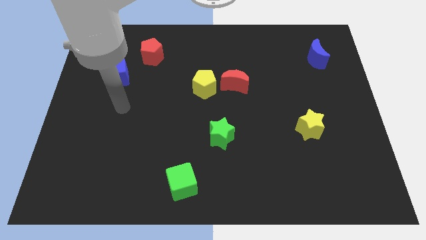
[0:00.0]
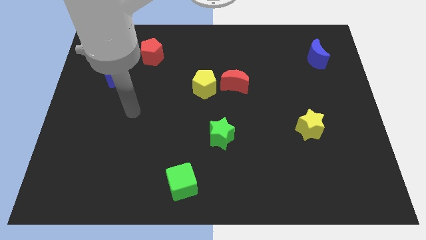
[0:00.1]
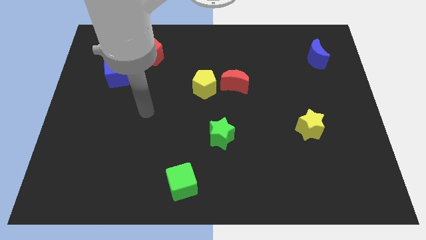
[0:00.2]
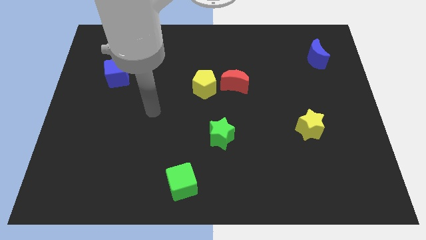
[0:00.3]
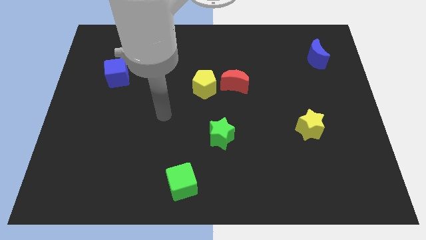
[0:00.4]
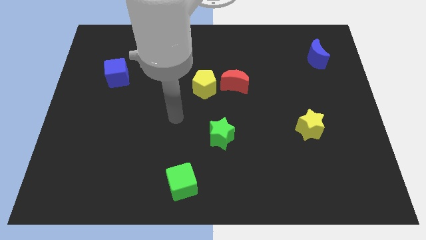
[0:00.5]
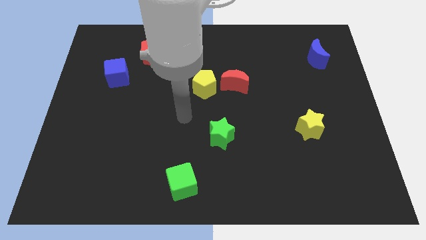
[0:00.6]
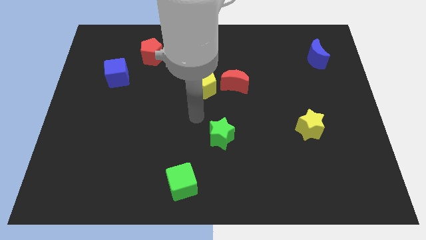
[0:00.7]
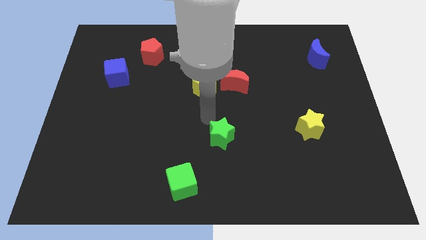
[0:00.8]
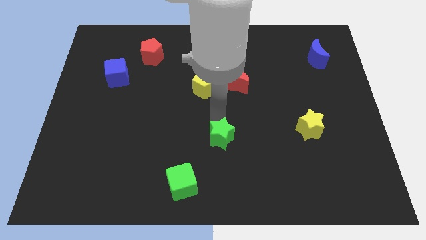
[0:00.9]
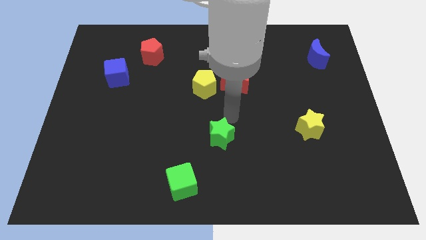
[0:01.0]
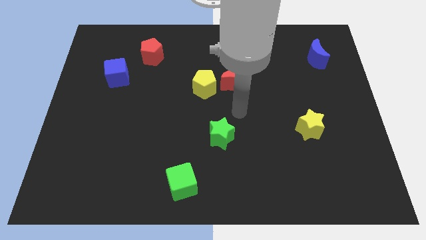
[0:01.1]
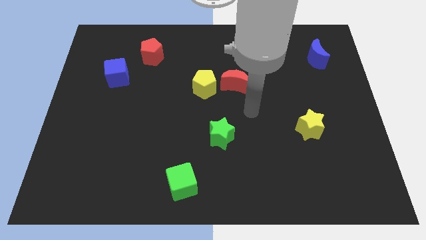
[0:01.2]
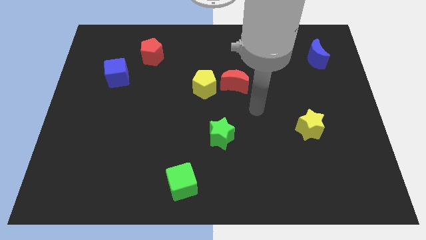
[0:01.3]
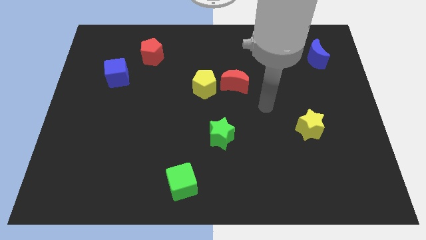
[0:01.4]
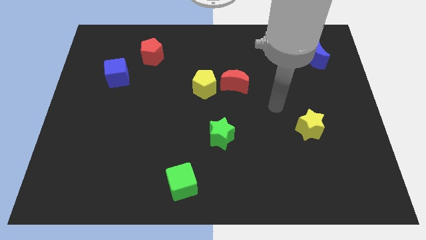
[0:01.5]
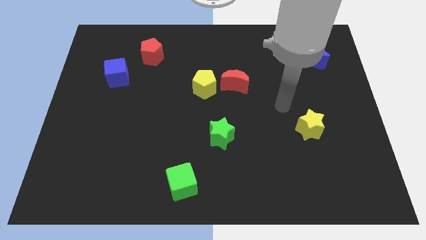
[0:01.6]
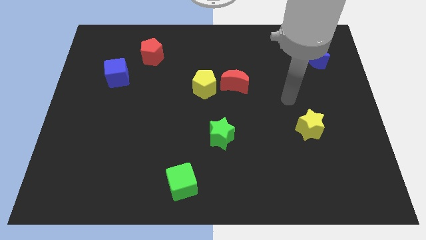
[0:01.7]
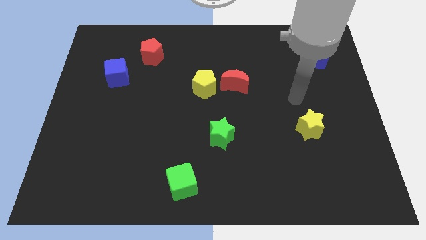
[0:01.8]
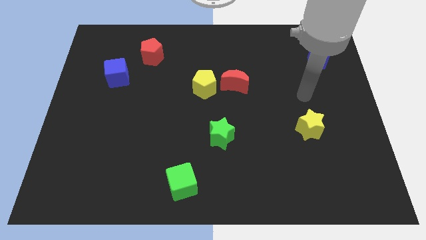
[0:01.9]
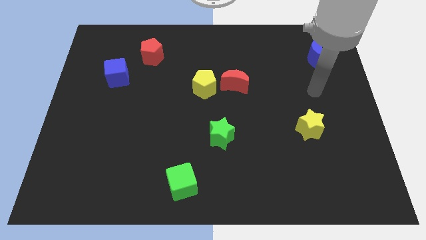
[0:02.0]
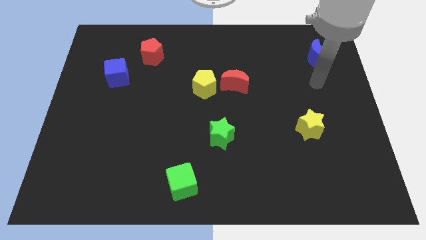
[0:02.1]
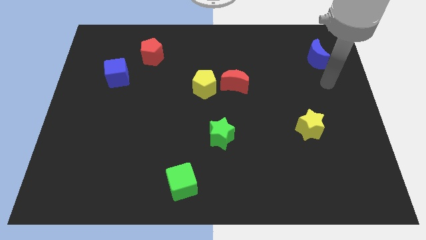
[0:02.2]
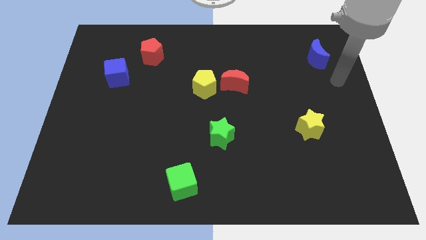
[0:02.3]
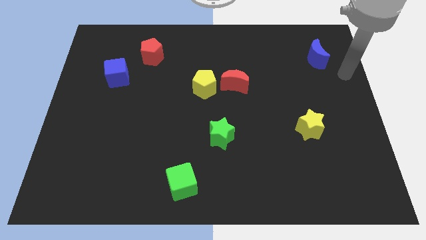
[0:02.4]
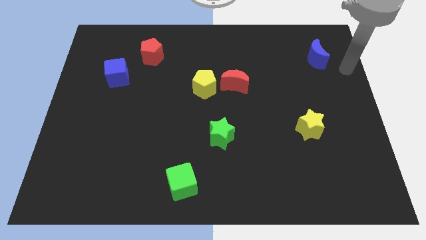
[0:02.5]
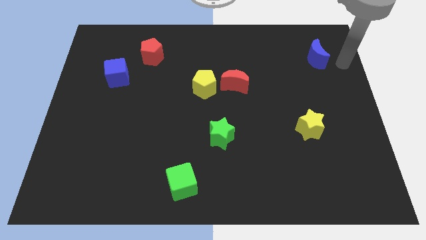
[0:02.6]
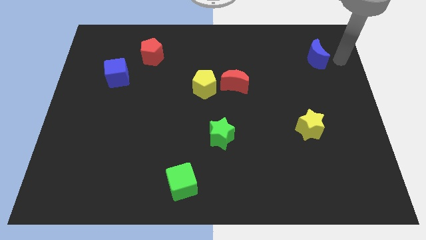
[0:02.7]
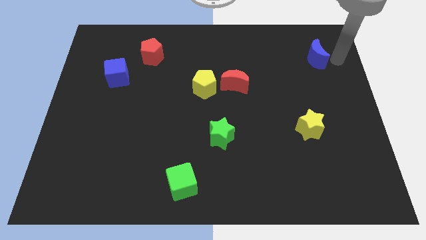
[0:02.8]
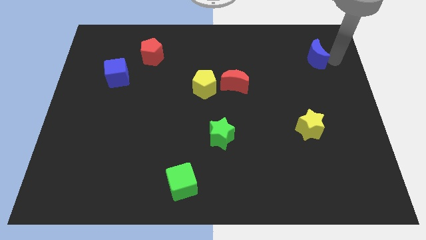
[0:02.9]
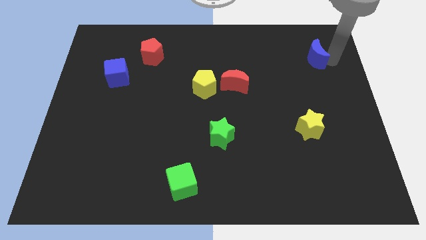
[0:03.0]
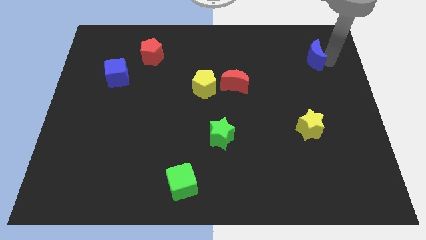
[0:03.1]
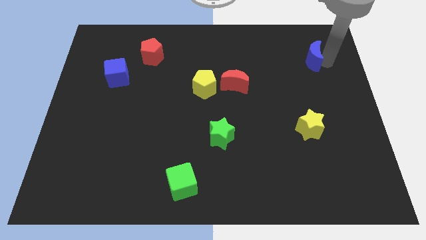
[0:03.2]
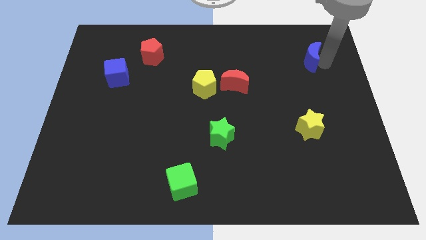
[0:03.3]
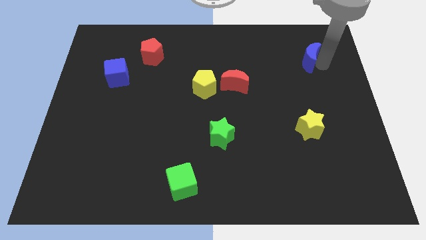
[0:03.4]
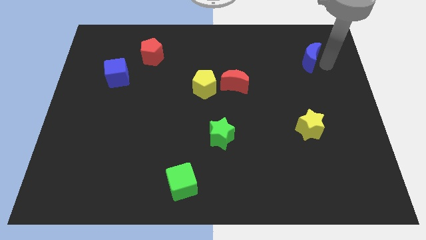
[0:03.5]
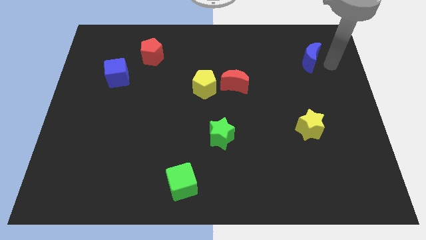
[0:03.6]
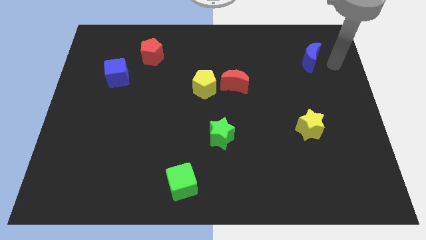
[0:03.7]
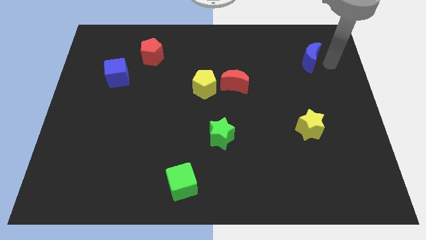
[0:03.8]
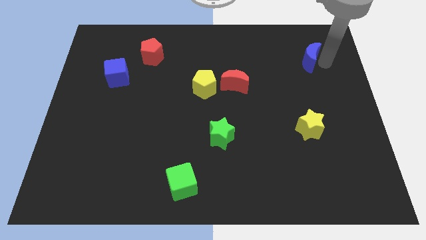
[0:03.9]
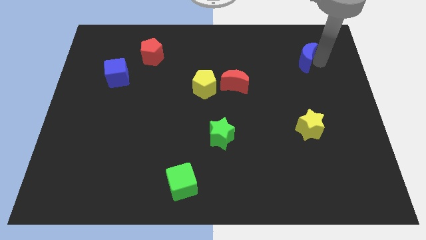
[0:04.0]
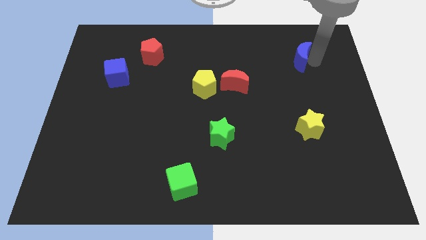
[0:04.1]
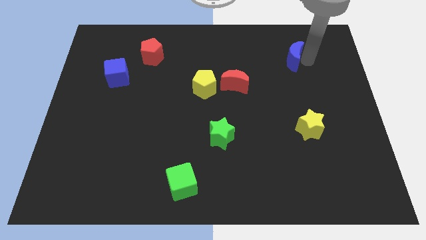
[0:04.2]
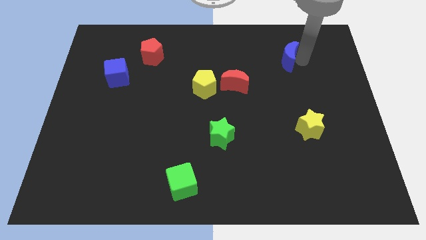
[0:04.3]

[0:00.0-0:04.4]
slightly move the blue moon left

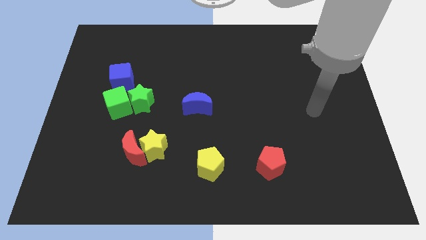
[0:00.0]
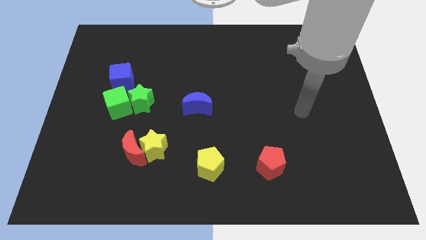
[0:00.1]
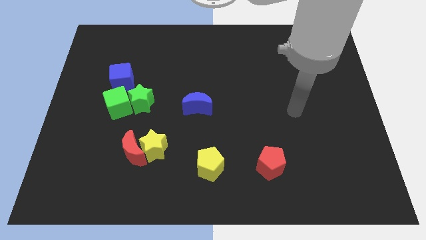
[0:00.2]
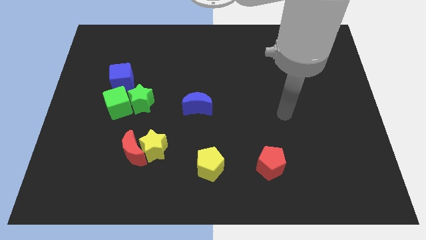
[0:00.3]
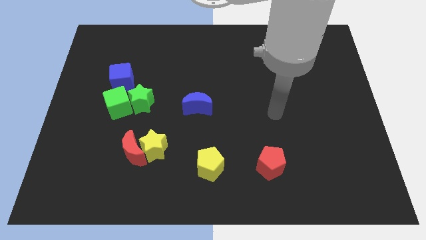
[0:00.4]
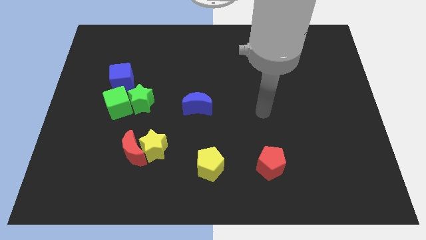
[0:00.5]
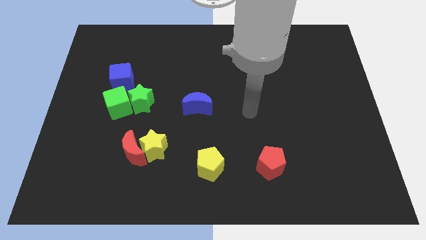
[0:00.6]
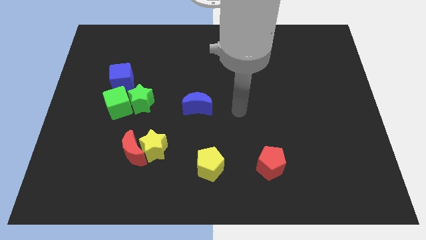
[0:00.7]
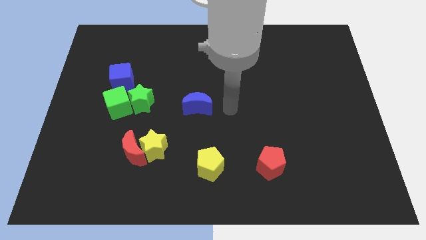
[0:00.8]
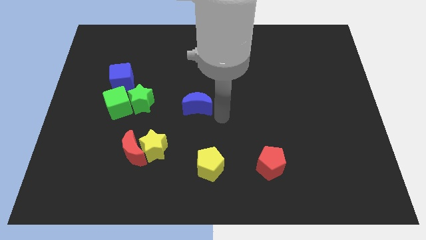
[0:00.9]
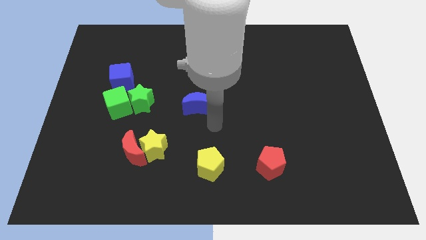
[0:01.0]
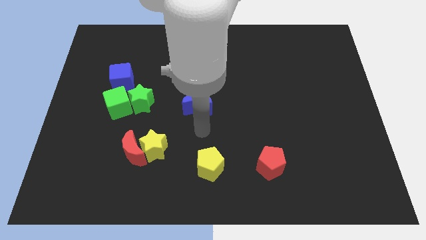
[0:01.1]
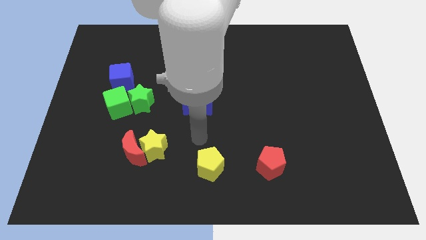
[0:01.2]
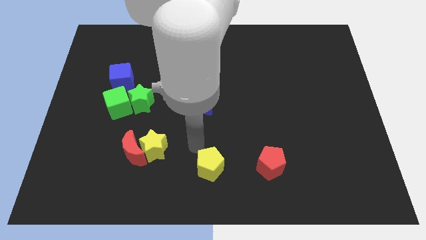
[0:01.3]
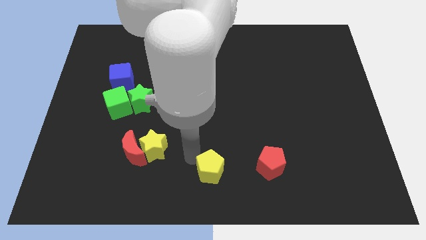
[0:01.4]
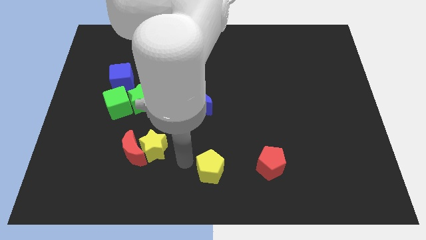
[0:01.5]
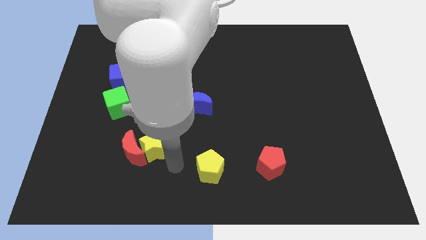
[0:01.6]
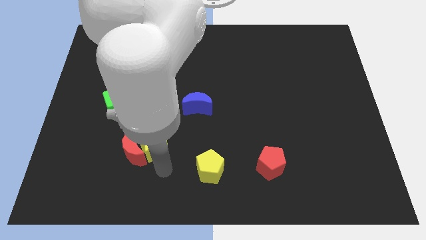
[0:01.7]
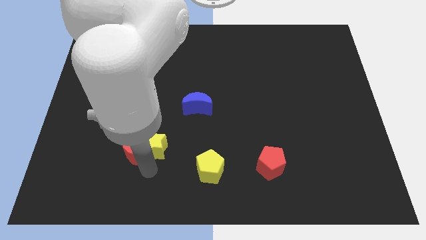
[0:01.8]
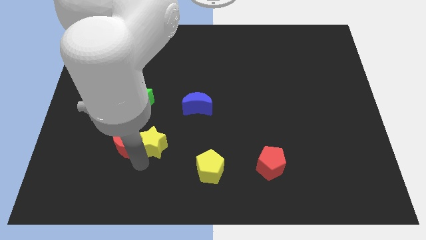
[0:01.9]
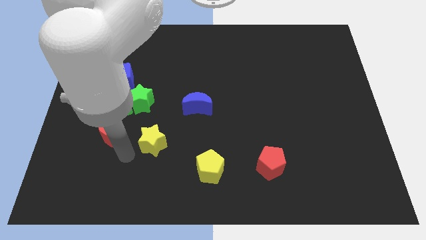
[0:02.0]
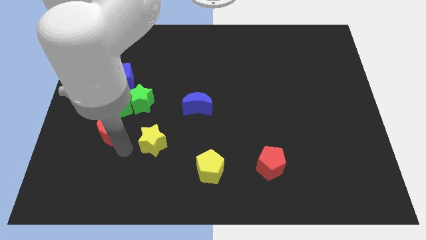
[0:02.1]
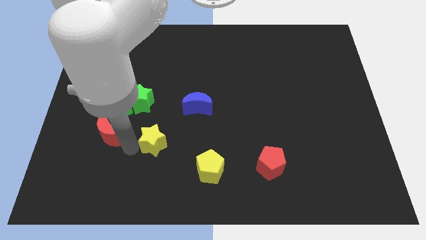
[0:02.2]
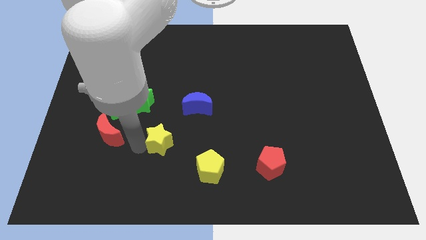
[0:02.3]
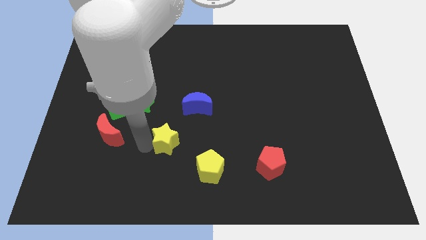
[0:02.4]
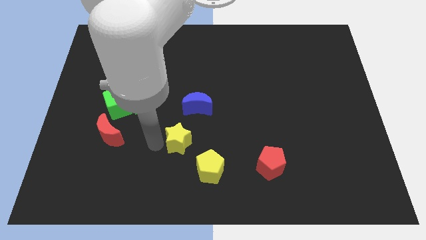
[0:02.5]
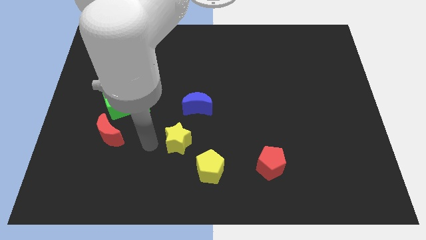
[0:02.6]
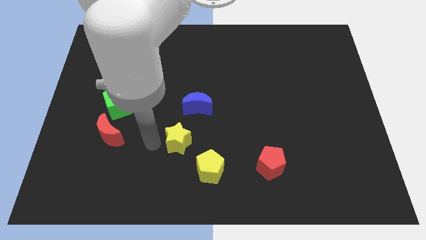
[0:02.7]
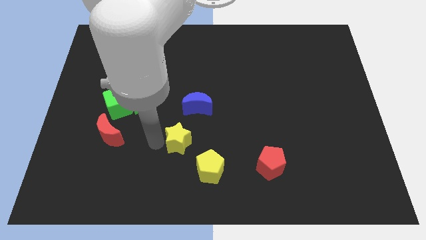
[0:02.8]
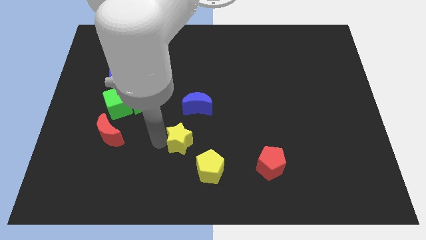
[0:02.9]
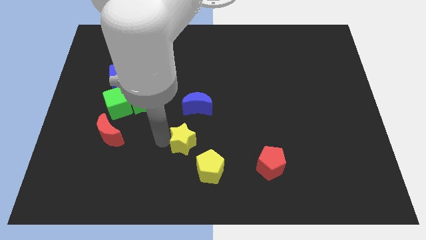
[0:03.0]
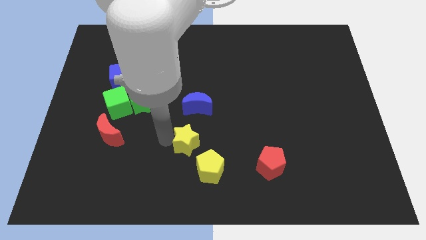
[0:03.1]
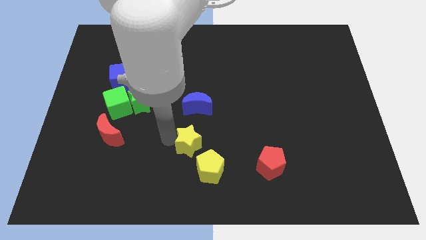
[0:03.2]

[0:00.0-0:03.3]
move the yellow star to the right somewhat

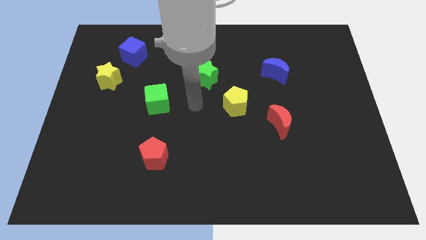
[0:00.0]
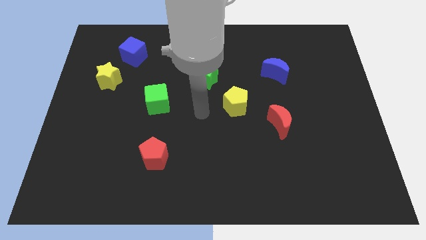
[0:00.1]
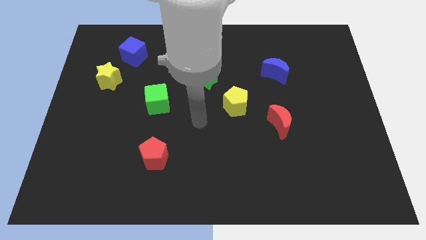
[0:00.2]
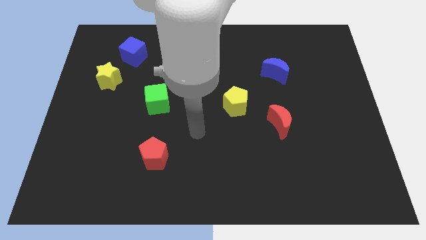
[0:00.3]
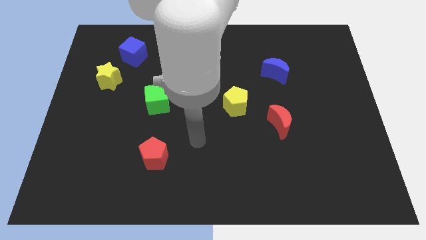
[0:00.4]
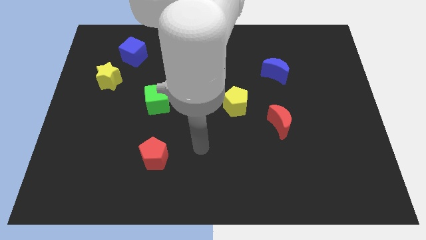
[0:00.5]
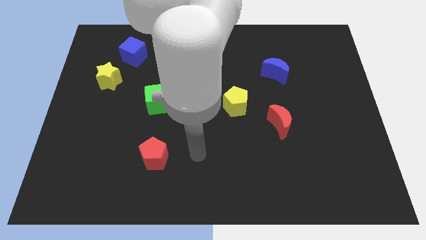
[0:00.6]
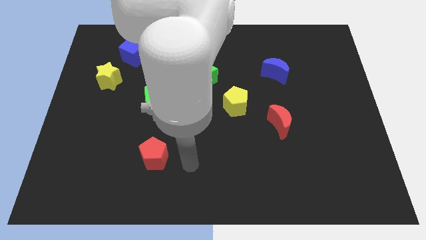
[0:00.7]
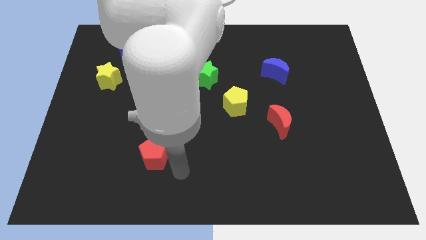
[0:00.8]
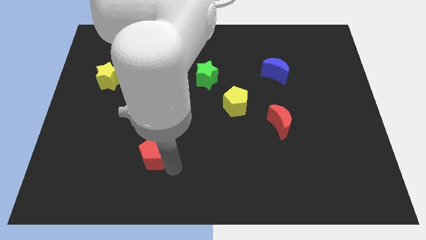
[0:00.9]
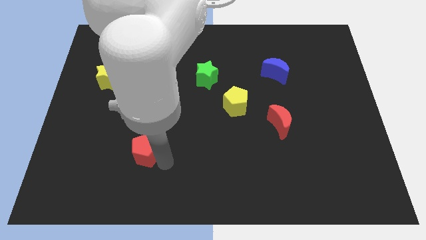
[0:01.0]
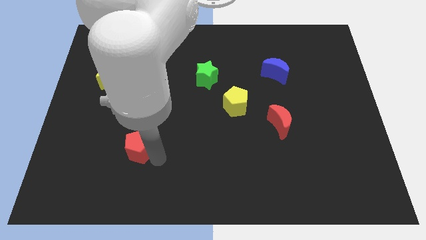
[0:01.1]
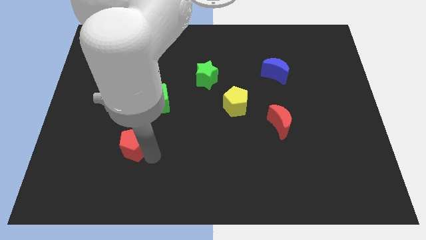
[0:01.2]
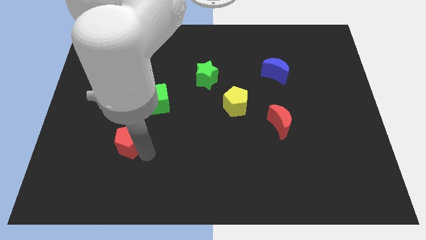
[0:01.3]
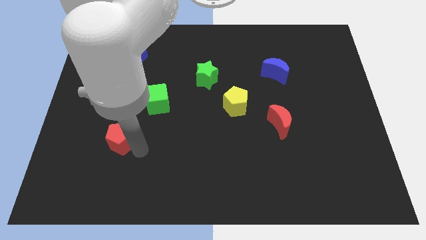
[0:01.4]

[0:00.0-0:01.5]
slightly slide the red pentagon upwards and then left
